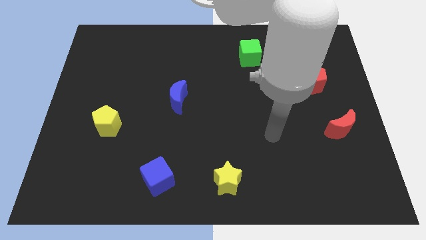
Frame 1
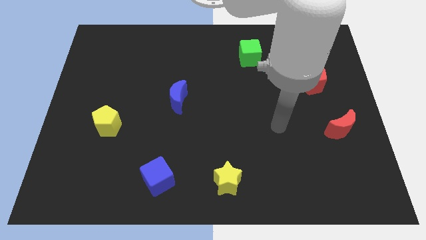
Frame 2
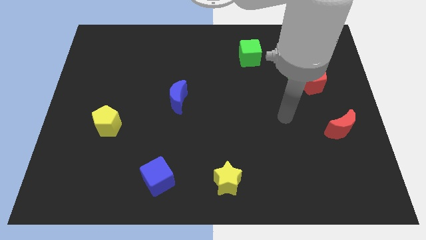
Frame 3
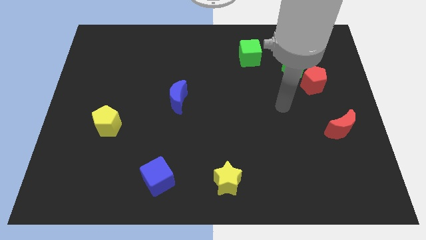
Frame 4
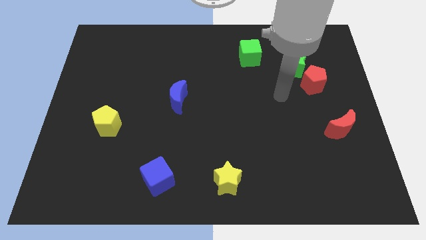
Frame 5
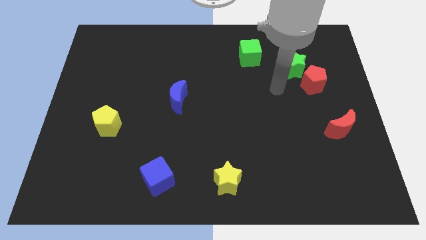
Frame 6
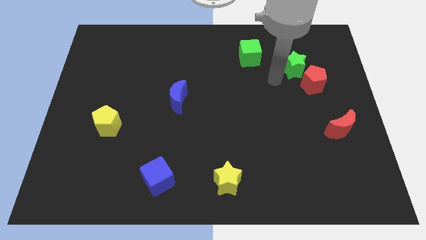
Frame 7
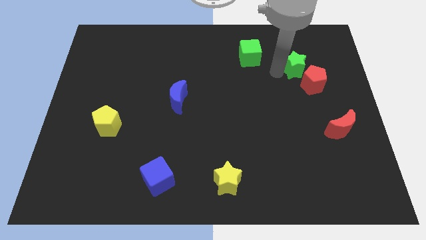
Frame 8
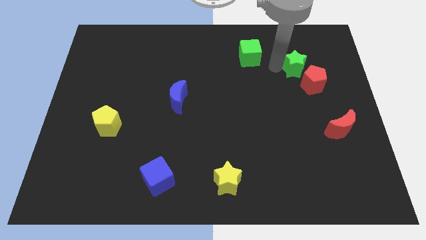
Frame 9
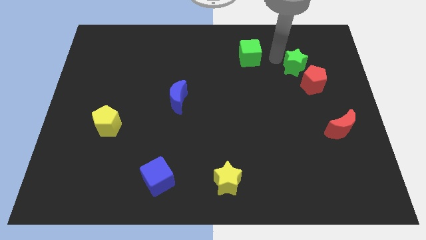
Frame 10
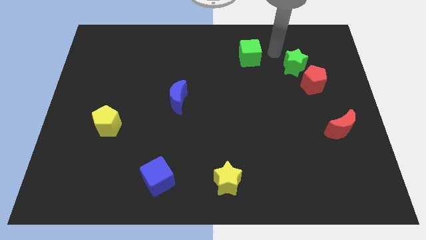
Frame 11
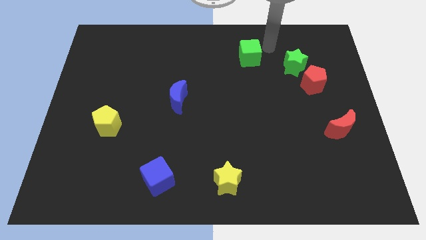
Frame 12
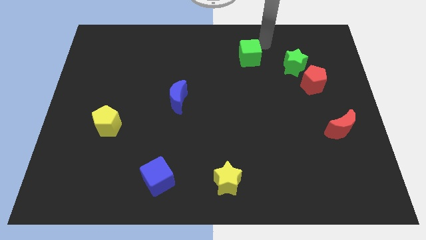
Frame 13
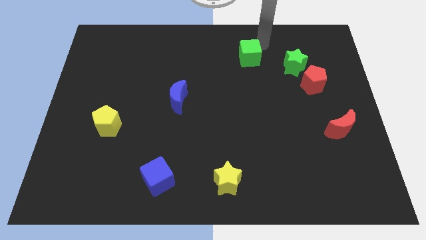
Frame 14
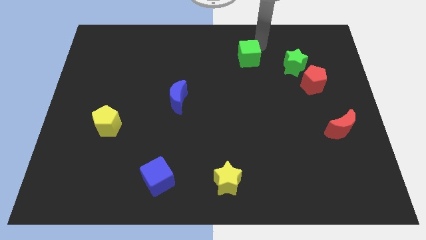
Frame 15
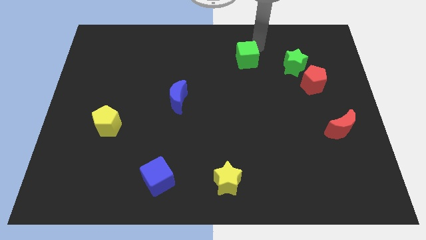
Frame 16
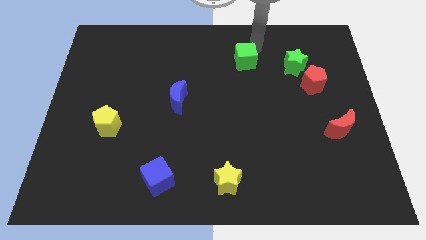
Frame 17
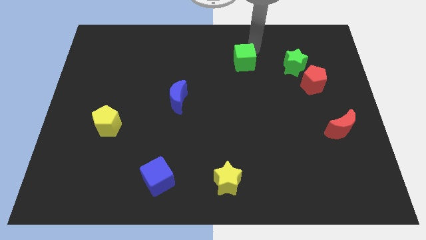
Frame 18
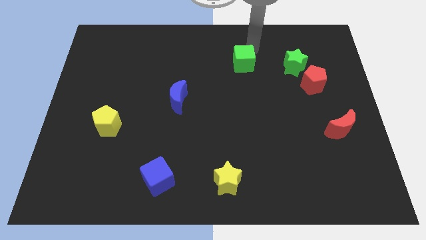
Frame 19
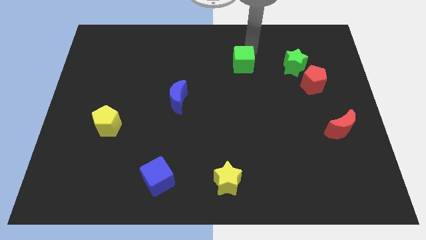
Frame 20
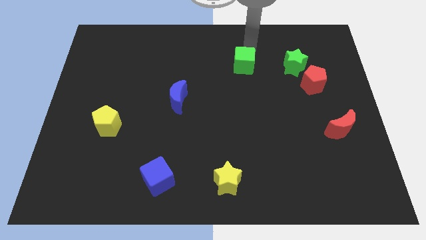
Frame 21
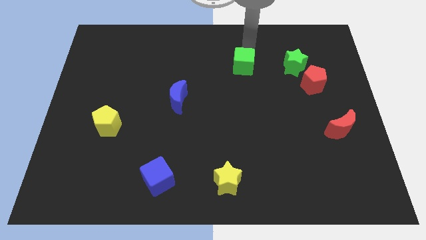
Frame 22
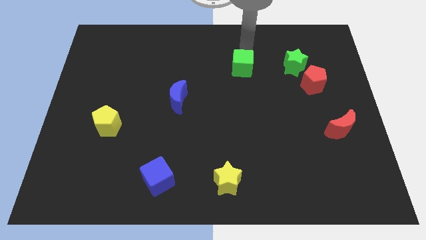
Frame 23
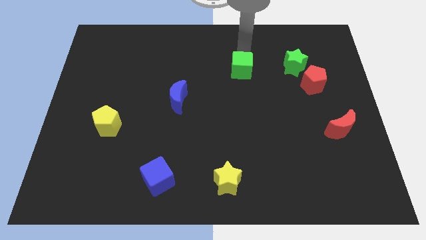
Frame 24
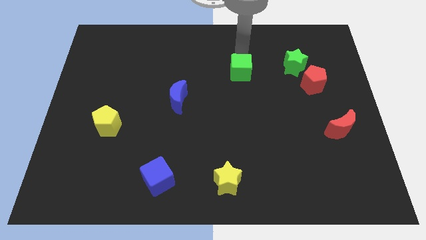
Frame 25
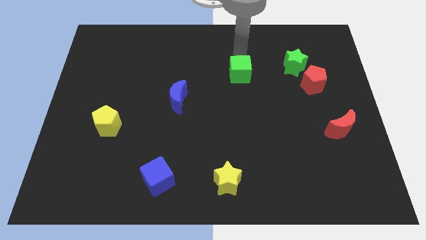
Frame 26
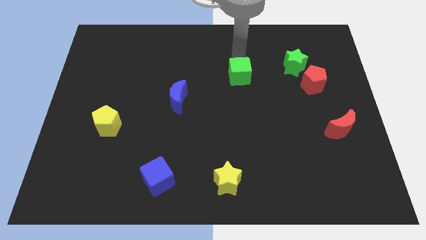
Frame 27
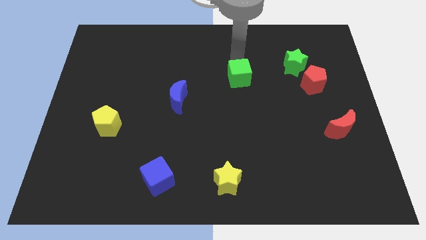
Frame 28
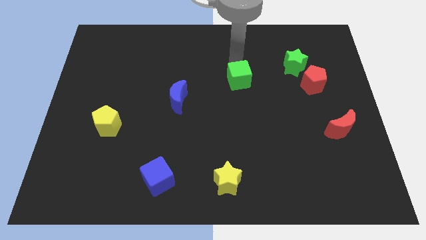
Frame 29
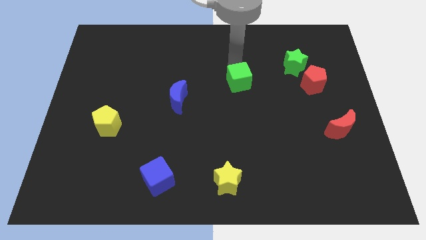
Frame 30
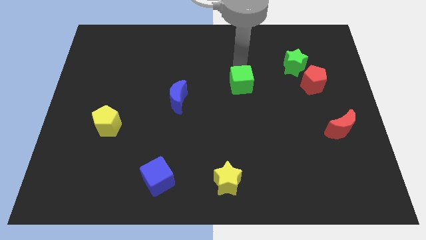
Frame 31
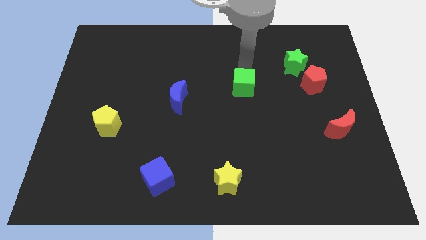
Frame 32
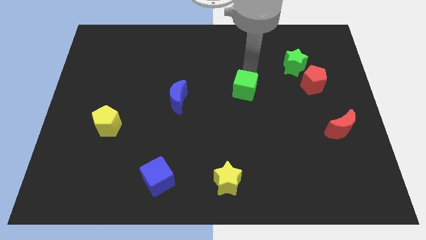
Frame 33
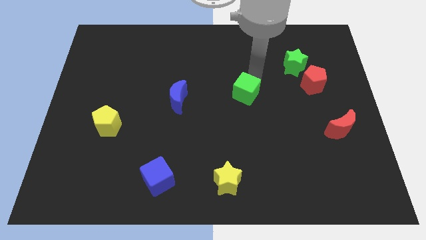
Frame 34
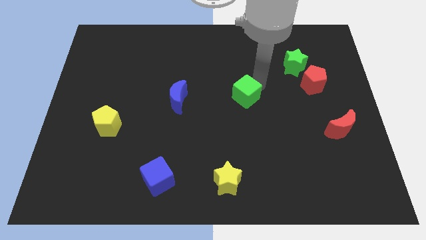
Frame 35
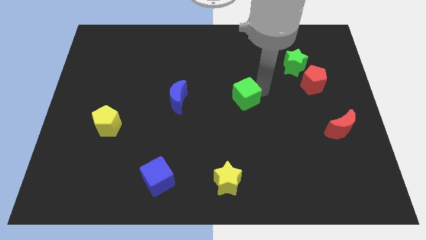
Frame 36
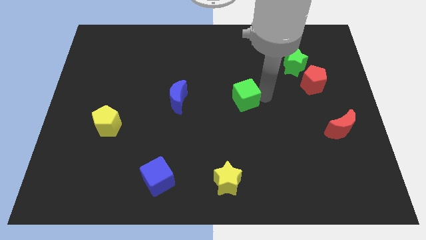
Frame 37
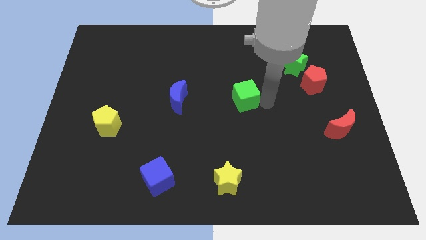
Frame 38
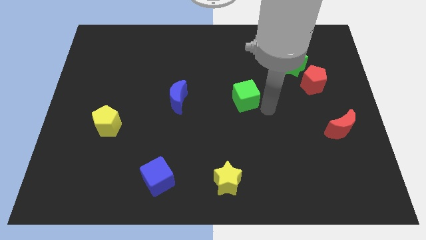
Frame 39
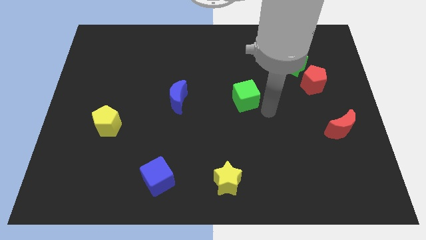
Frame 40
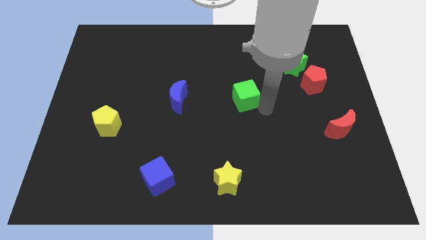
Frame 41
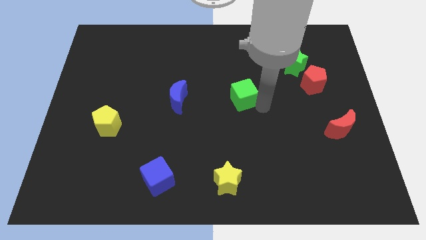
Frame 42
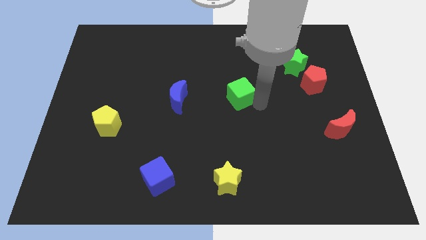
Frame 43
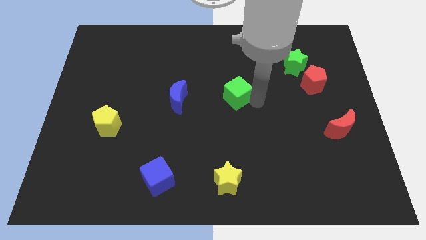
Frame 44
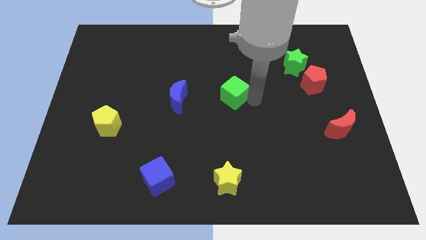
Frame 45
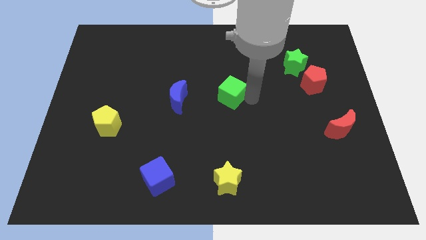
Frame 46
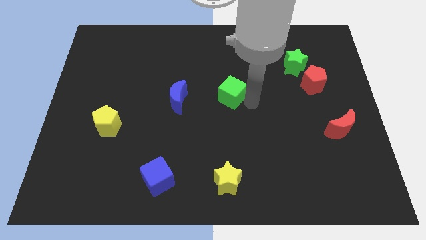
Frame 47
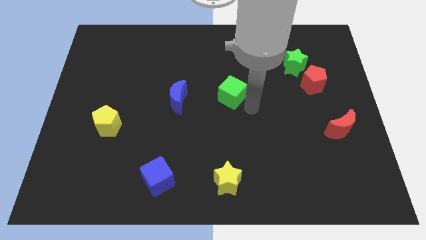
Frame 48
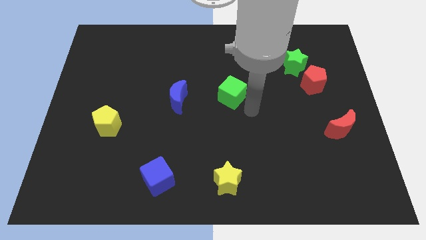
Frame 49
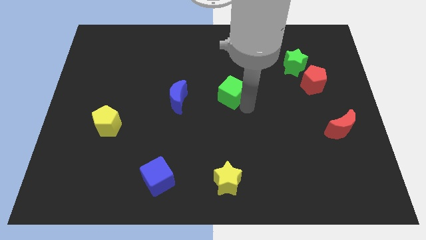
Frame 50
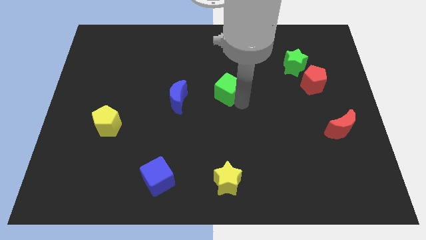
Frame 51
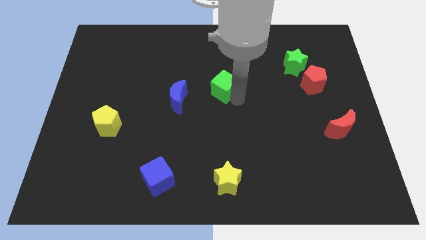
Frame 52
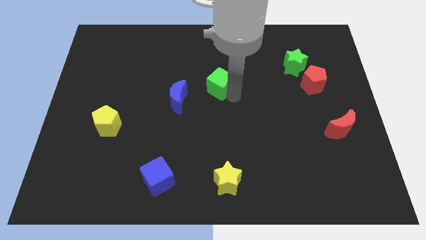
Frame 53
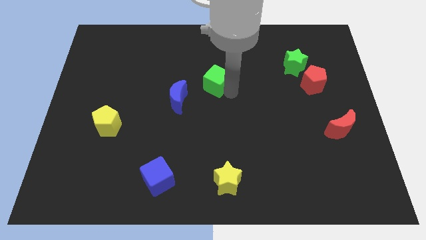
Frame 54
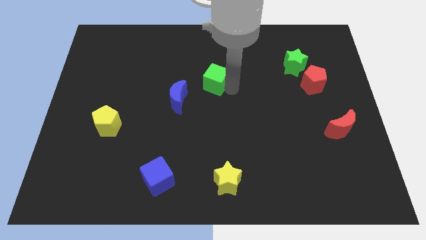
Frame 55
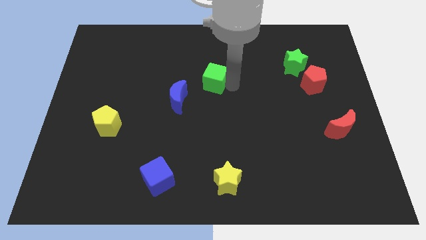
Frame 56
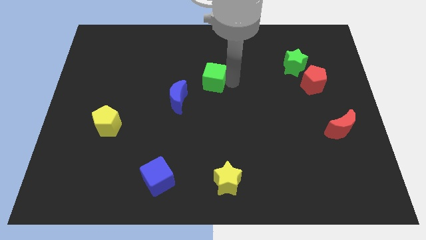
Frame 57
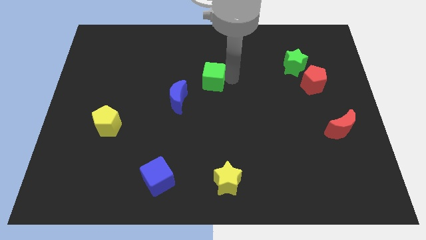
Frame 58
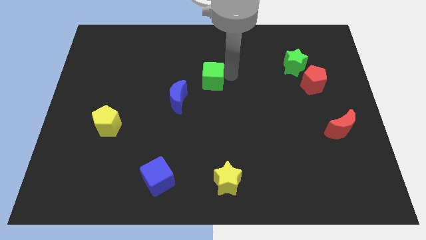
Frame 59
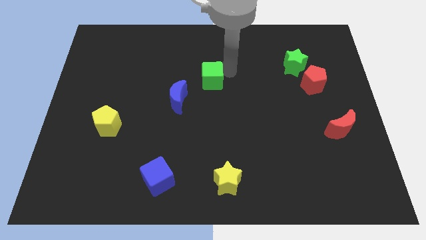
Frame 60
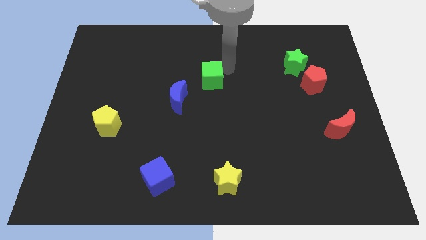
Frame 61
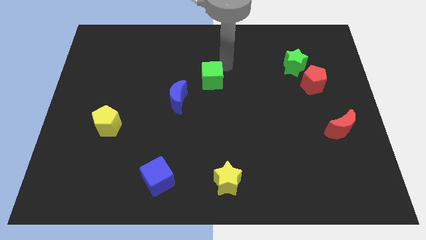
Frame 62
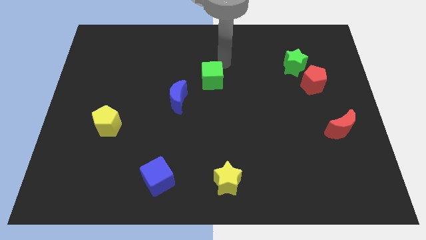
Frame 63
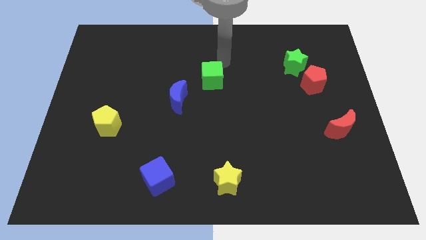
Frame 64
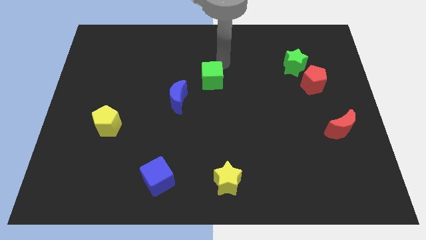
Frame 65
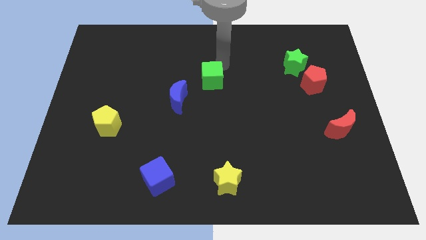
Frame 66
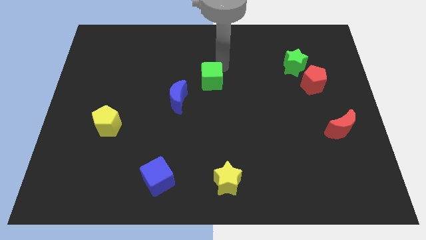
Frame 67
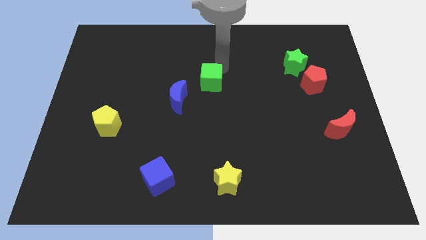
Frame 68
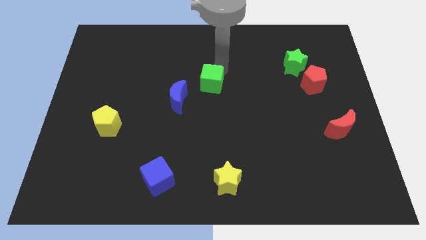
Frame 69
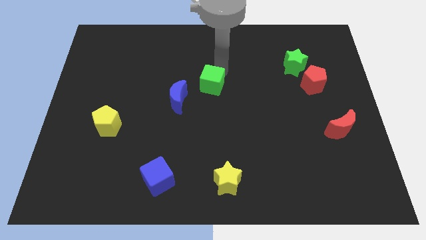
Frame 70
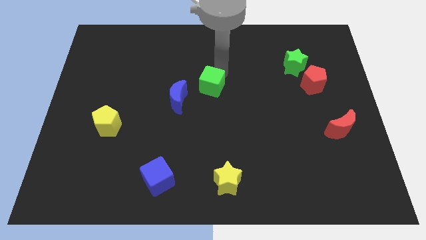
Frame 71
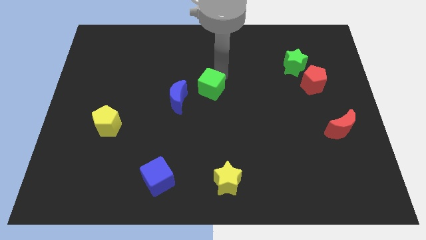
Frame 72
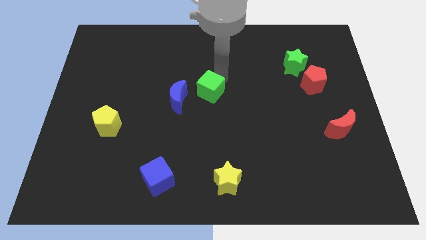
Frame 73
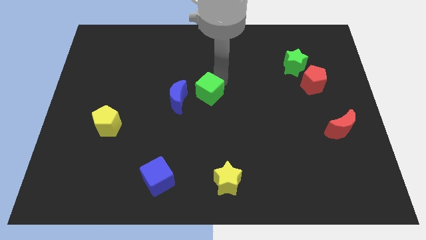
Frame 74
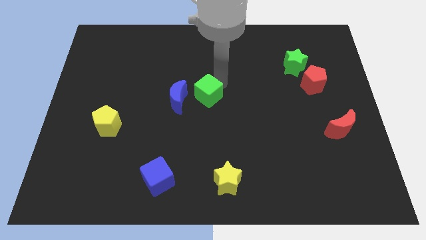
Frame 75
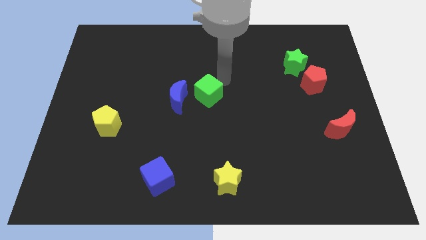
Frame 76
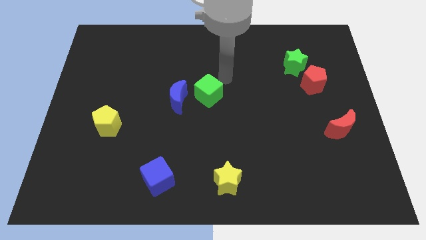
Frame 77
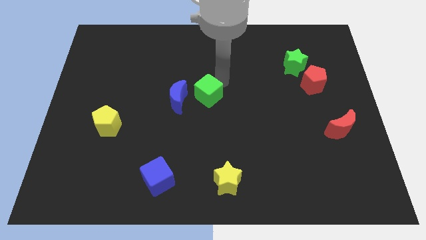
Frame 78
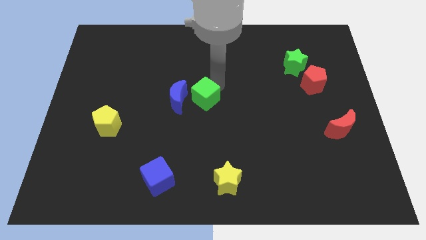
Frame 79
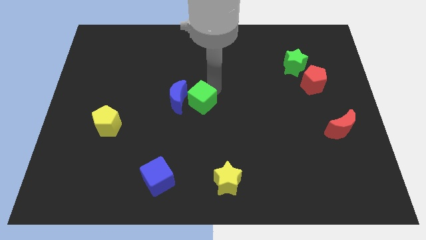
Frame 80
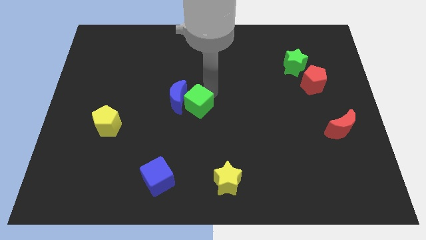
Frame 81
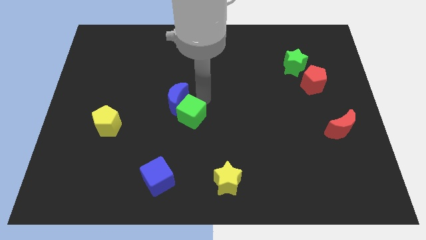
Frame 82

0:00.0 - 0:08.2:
put the green cube to the bottom of the blue moon
